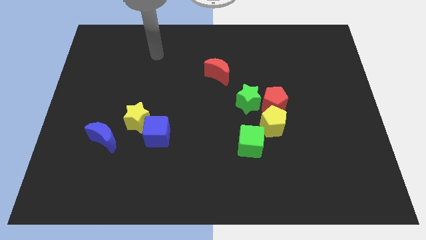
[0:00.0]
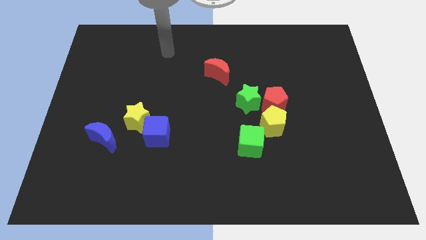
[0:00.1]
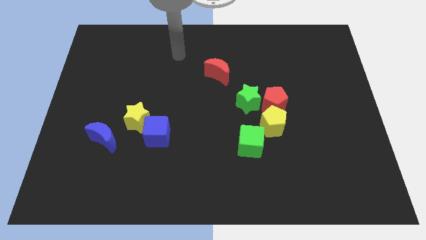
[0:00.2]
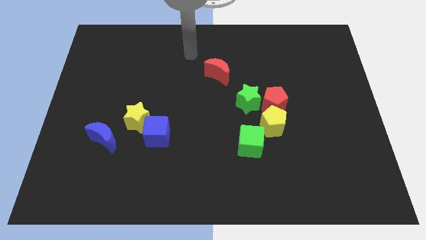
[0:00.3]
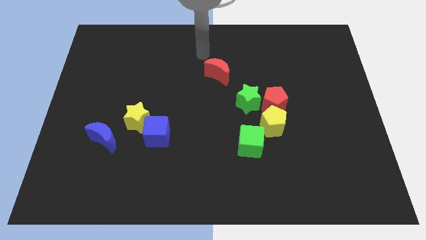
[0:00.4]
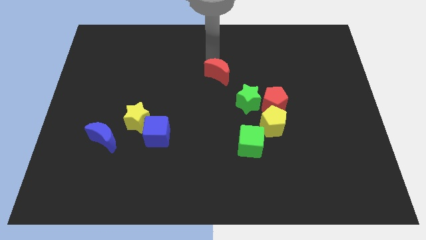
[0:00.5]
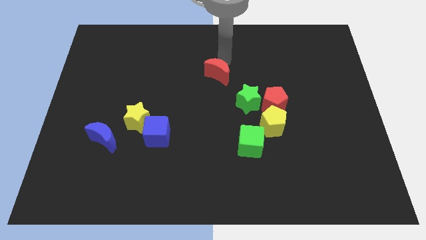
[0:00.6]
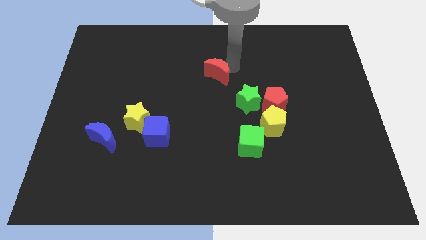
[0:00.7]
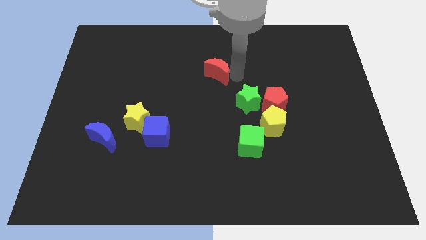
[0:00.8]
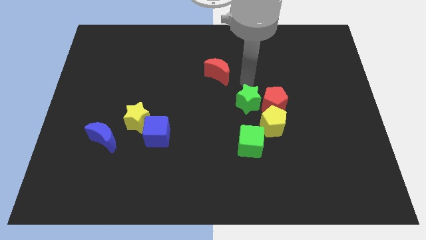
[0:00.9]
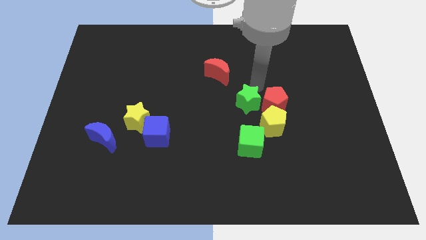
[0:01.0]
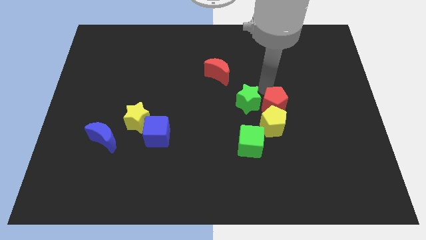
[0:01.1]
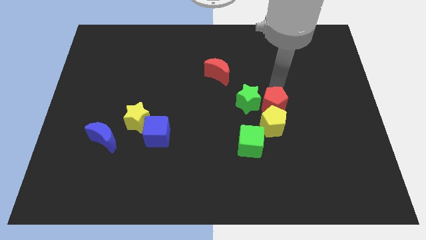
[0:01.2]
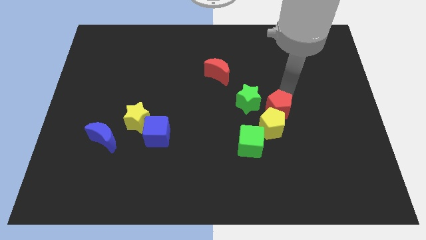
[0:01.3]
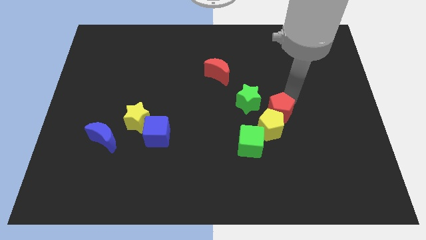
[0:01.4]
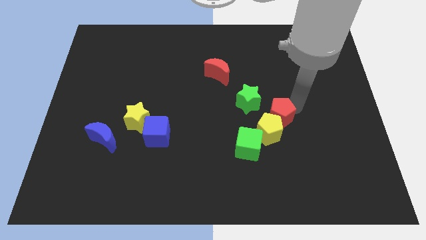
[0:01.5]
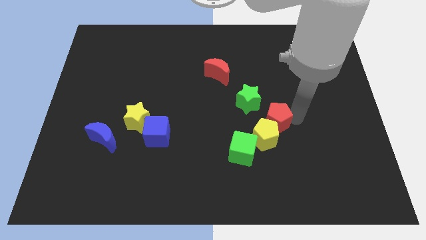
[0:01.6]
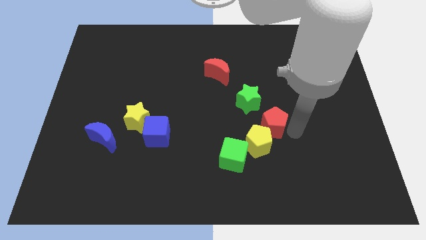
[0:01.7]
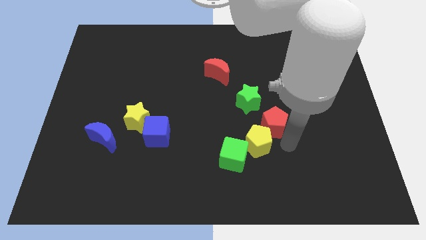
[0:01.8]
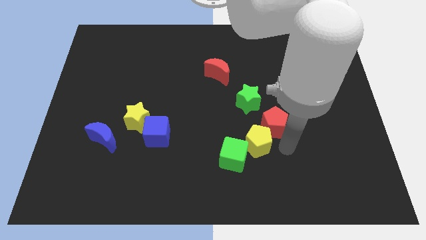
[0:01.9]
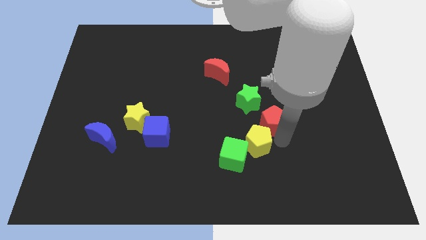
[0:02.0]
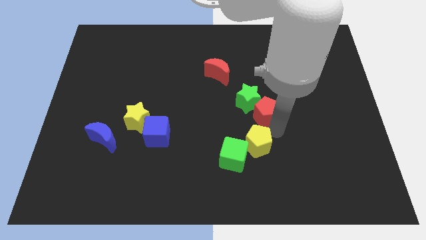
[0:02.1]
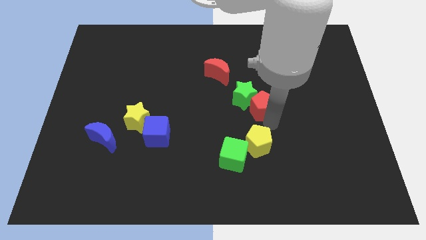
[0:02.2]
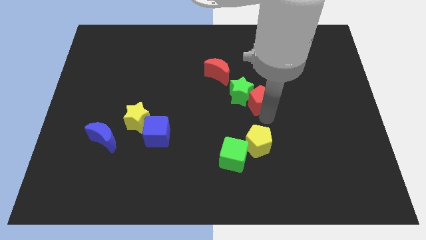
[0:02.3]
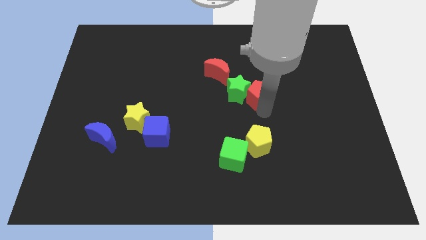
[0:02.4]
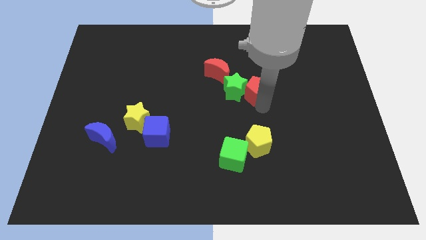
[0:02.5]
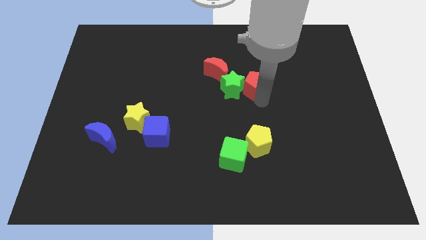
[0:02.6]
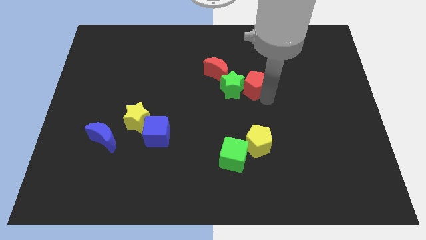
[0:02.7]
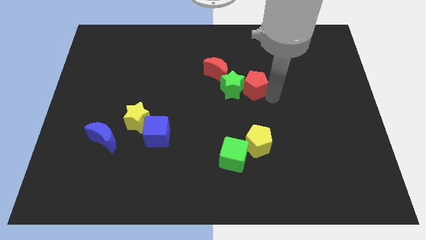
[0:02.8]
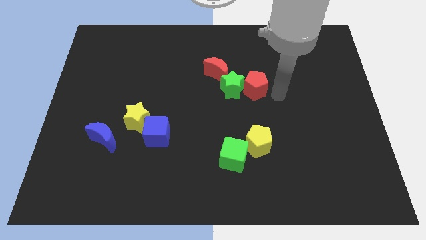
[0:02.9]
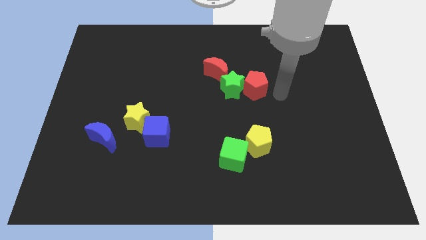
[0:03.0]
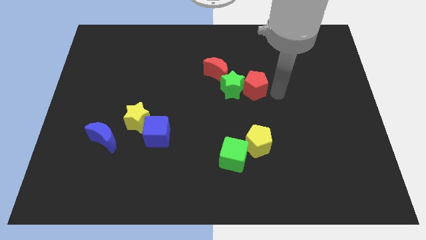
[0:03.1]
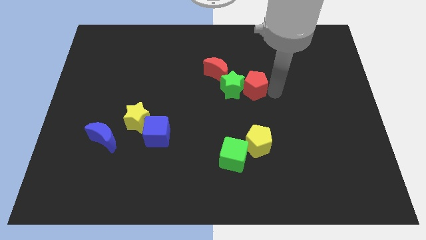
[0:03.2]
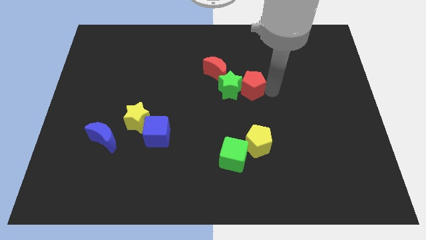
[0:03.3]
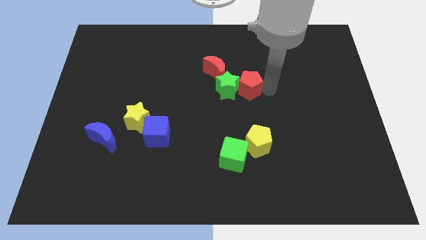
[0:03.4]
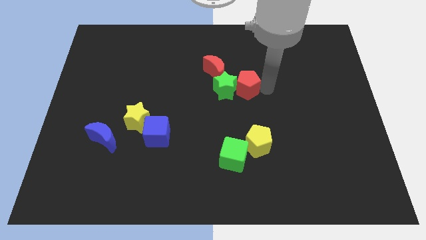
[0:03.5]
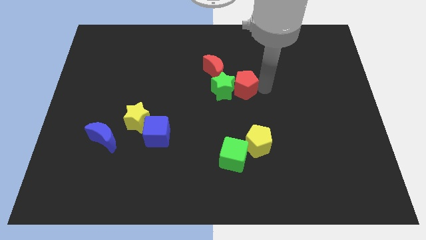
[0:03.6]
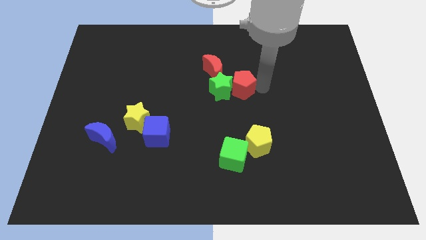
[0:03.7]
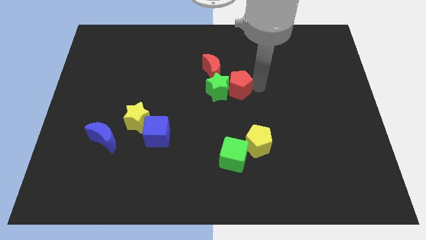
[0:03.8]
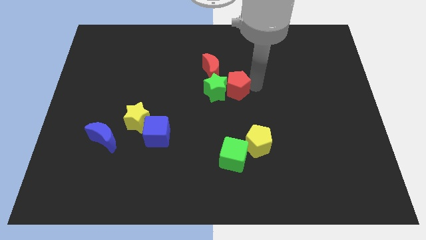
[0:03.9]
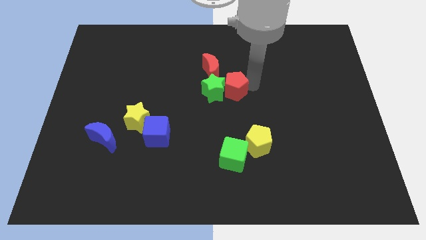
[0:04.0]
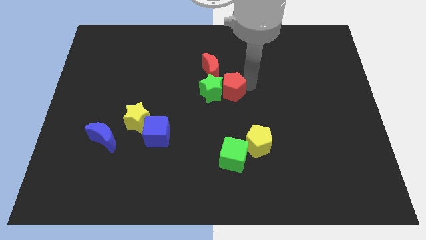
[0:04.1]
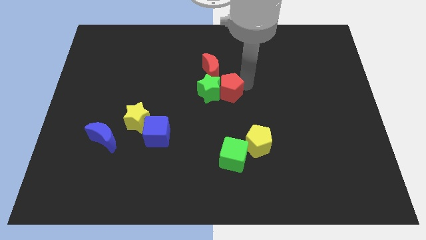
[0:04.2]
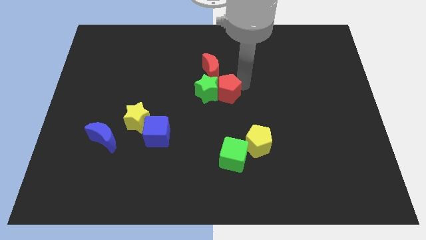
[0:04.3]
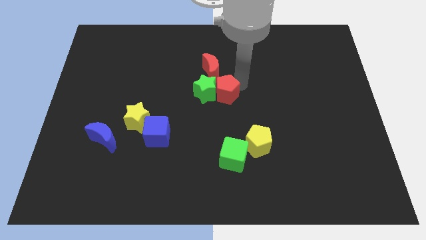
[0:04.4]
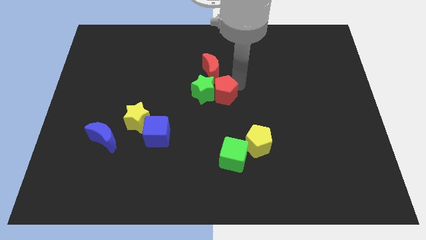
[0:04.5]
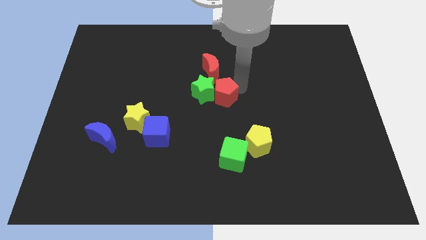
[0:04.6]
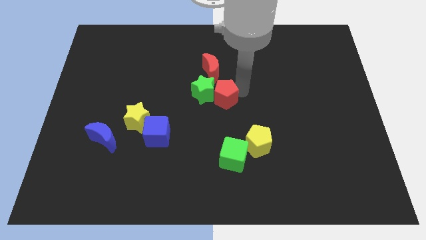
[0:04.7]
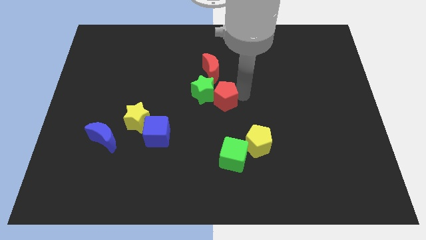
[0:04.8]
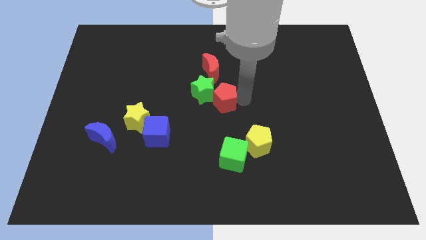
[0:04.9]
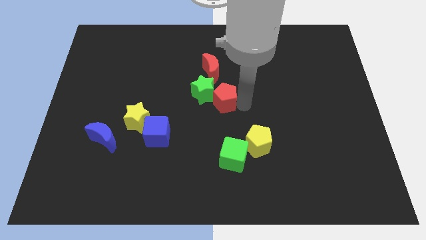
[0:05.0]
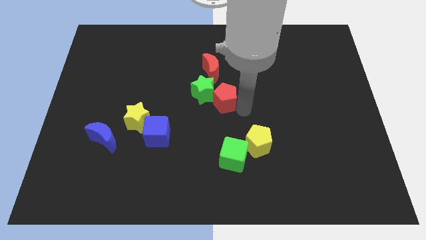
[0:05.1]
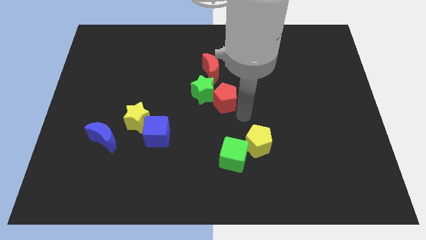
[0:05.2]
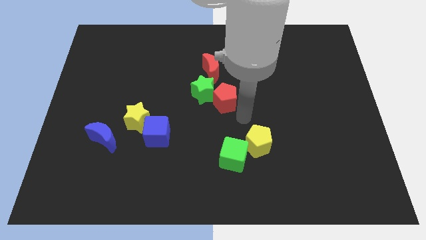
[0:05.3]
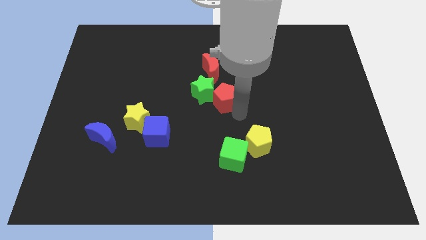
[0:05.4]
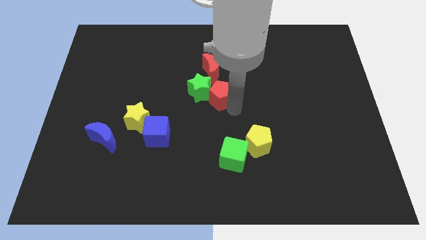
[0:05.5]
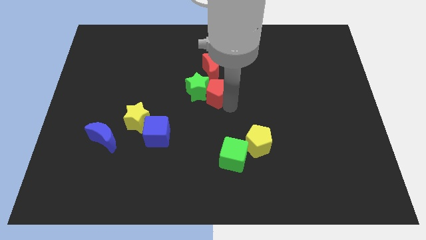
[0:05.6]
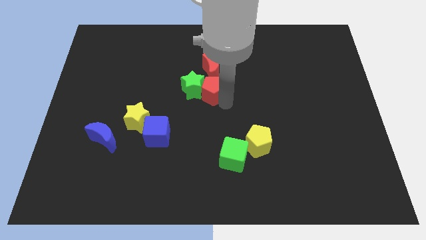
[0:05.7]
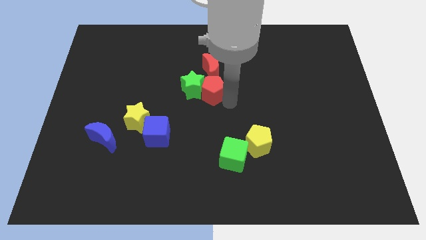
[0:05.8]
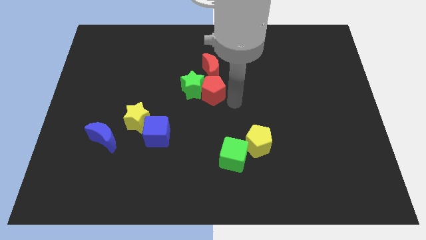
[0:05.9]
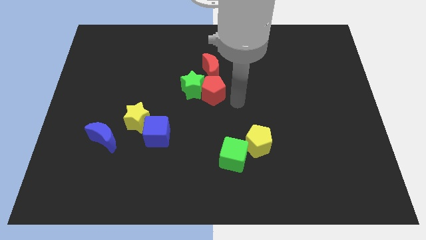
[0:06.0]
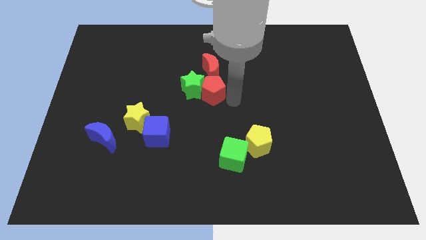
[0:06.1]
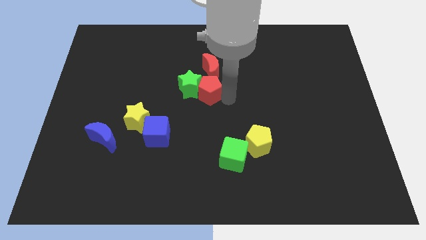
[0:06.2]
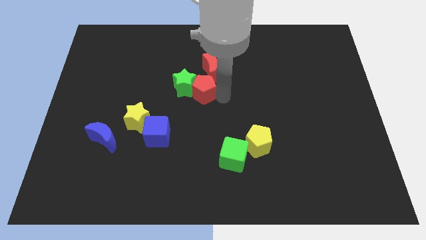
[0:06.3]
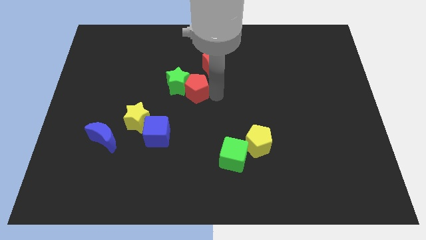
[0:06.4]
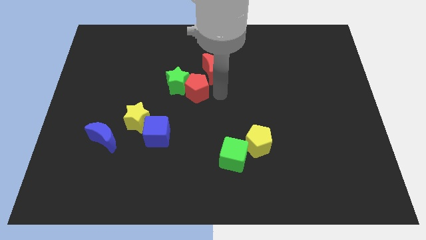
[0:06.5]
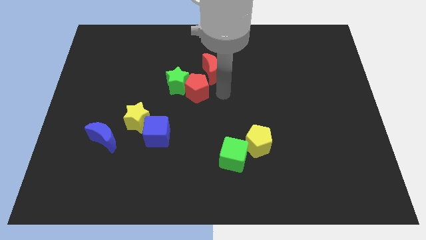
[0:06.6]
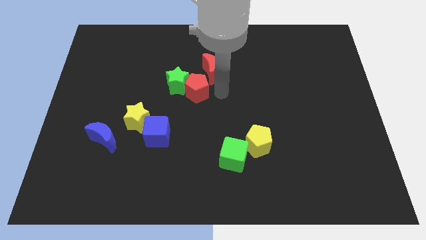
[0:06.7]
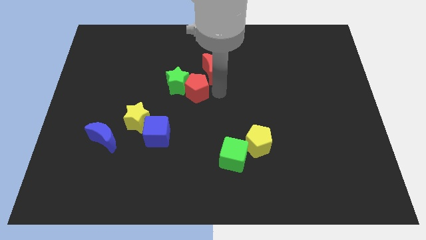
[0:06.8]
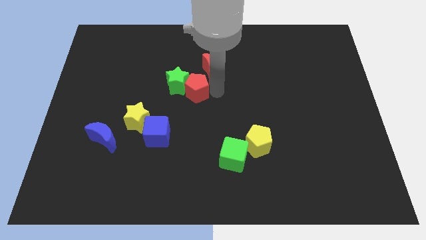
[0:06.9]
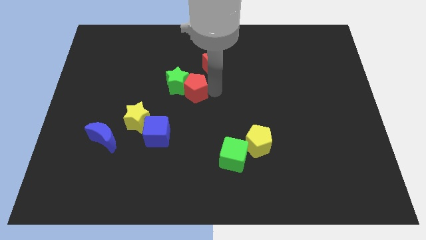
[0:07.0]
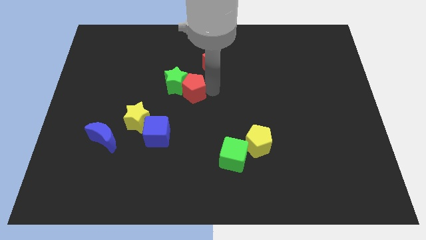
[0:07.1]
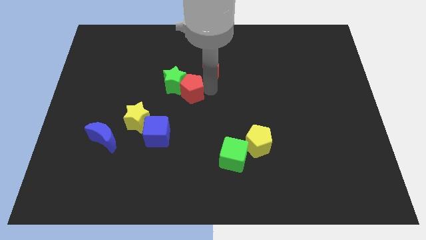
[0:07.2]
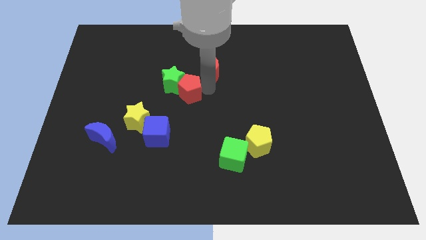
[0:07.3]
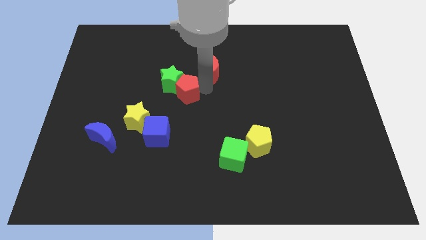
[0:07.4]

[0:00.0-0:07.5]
move the red pentagon left

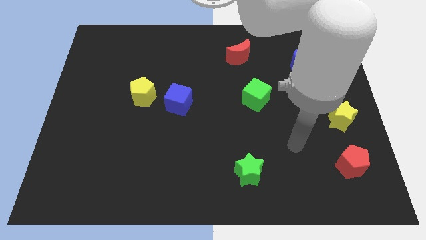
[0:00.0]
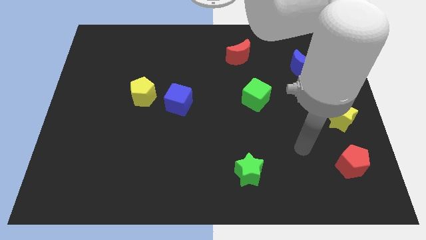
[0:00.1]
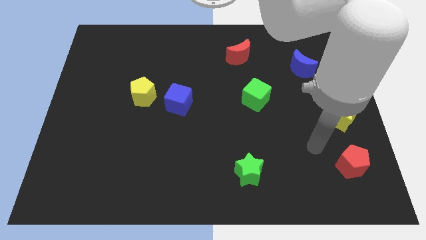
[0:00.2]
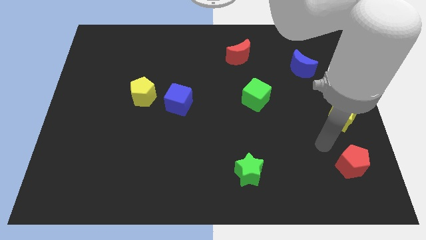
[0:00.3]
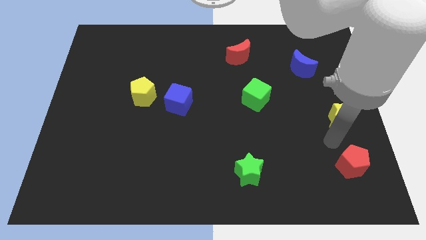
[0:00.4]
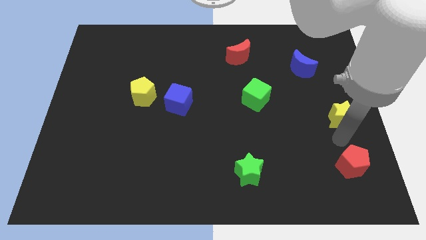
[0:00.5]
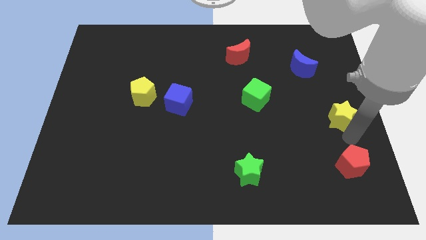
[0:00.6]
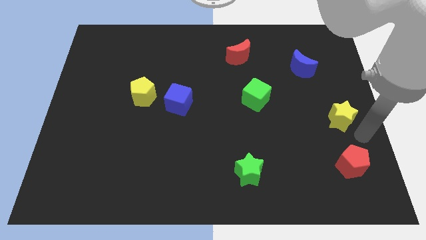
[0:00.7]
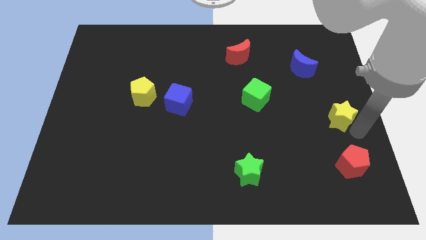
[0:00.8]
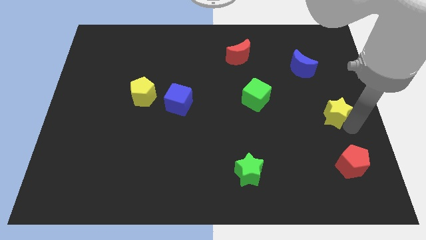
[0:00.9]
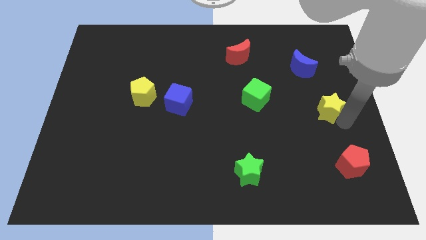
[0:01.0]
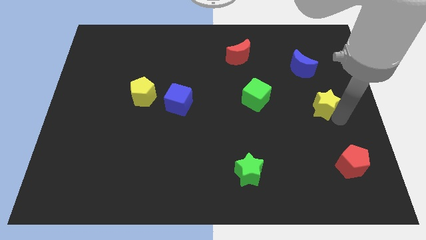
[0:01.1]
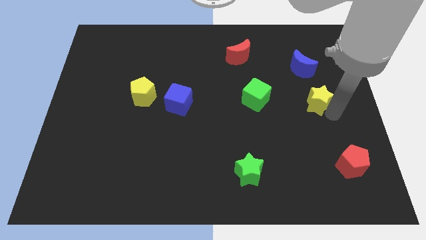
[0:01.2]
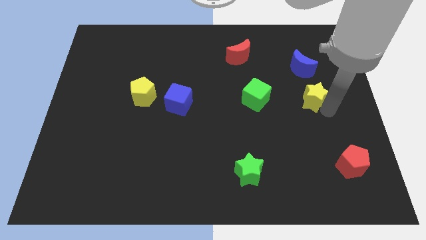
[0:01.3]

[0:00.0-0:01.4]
slide the yellow star upwards and left somewhat

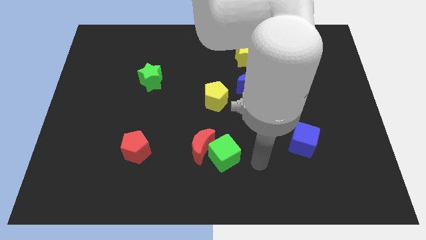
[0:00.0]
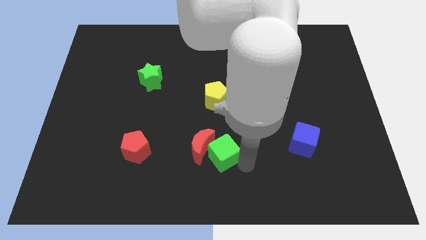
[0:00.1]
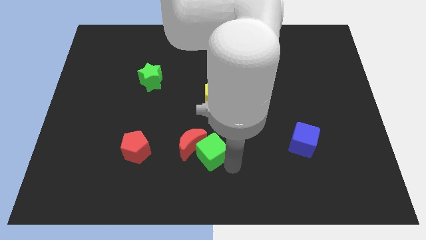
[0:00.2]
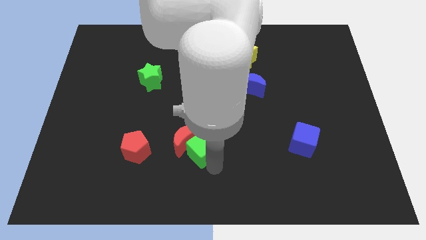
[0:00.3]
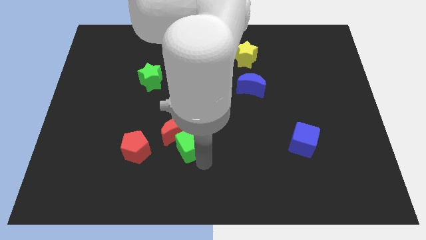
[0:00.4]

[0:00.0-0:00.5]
move the red moon diagonally up and left a bit
